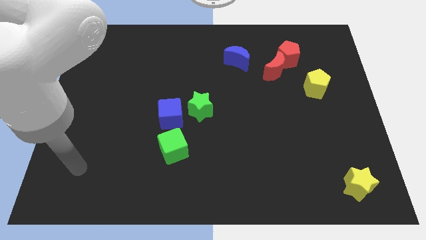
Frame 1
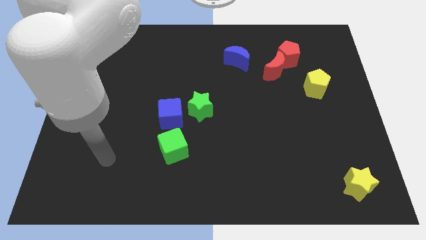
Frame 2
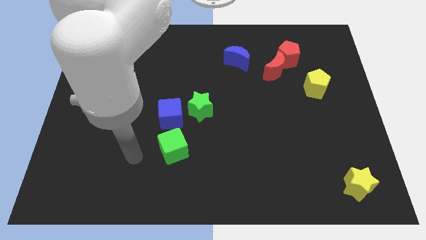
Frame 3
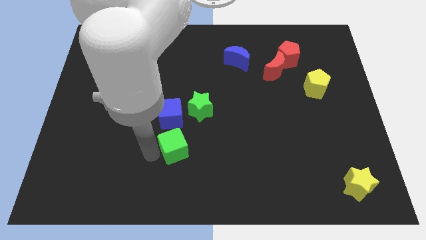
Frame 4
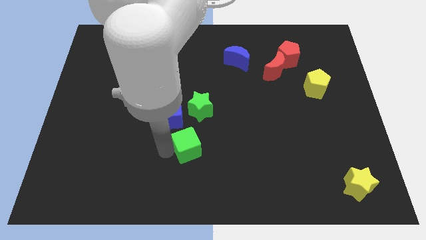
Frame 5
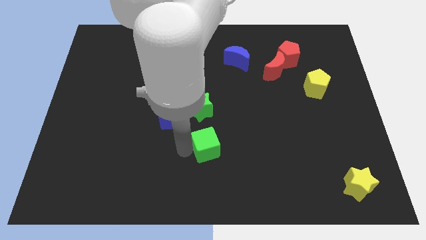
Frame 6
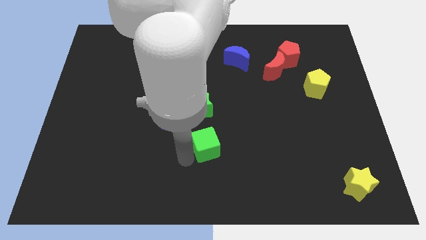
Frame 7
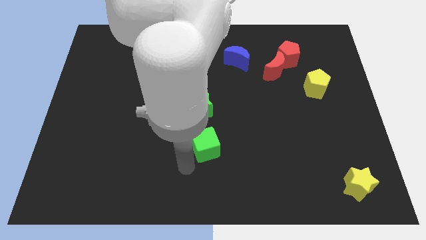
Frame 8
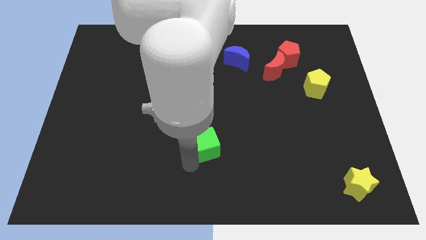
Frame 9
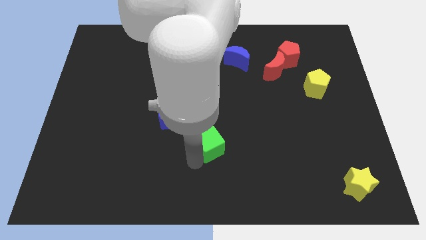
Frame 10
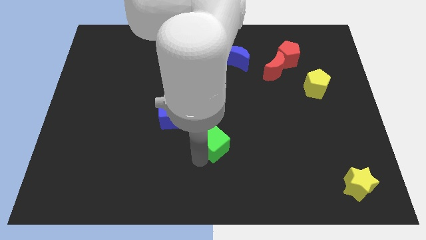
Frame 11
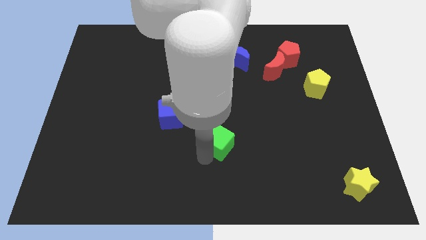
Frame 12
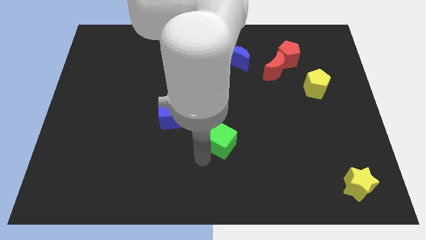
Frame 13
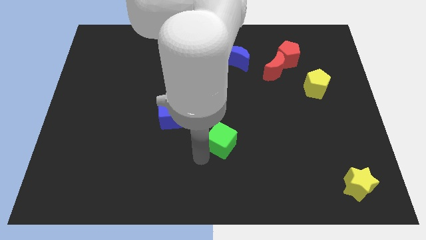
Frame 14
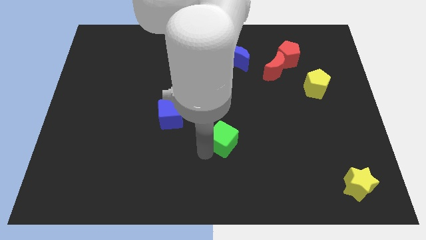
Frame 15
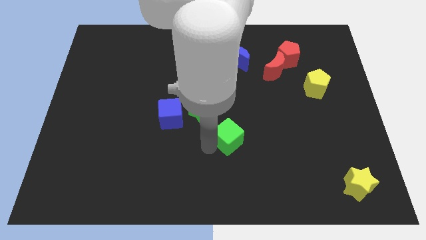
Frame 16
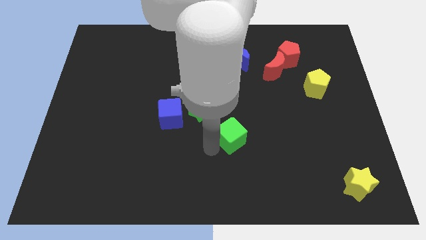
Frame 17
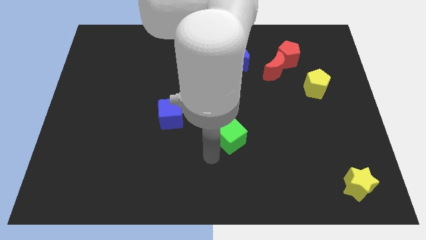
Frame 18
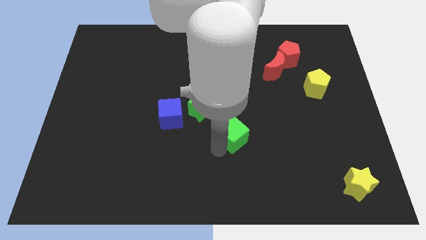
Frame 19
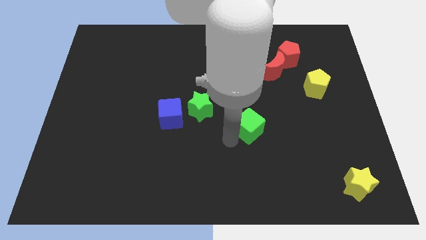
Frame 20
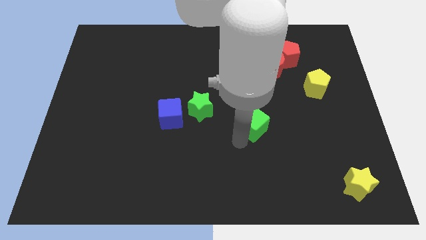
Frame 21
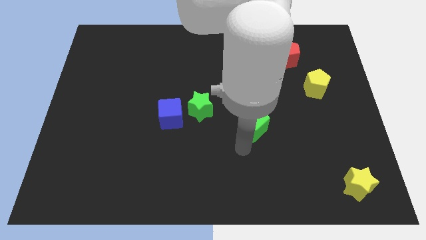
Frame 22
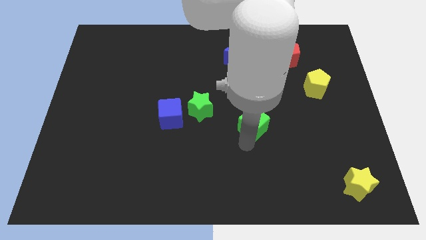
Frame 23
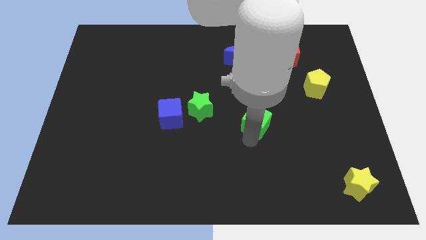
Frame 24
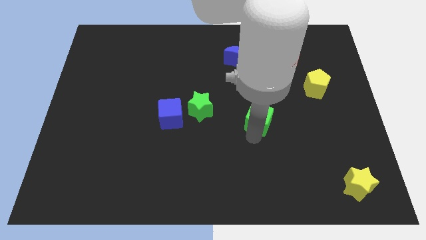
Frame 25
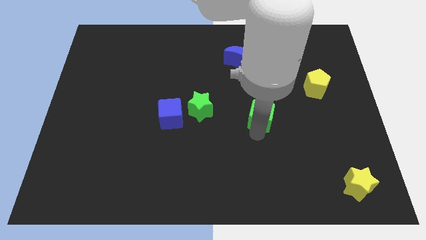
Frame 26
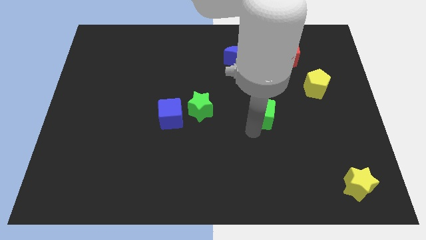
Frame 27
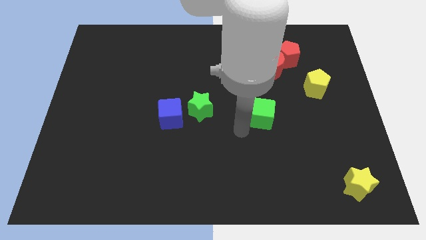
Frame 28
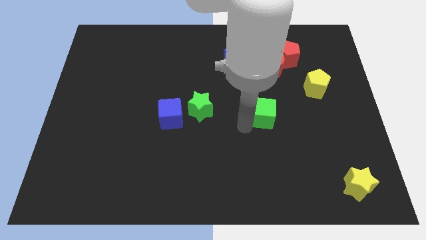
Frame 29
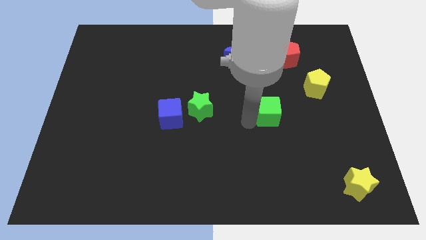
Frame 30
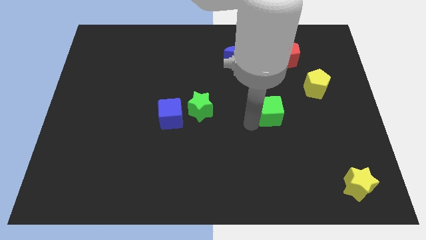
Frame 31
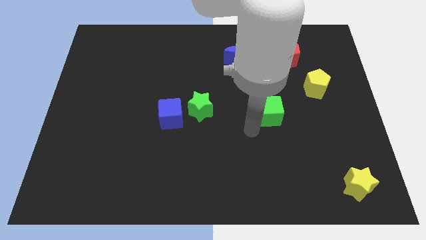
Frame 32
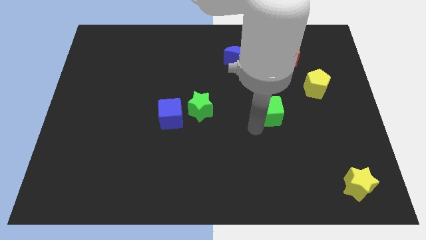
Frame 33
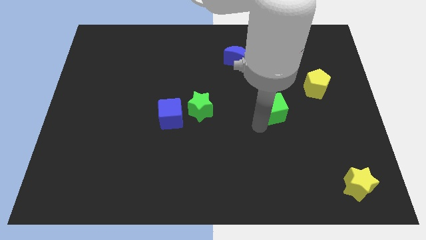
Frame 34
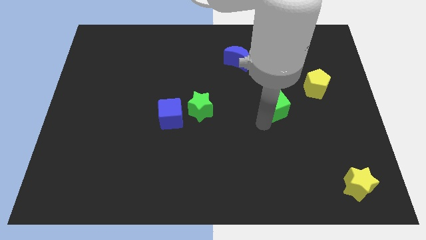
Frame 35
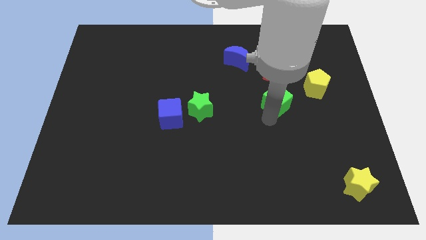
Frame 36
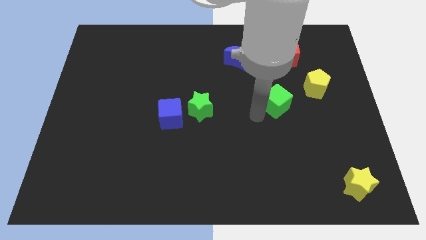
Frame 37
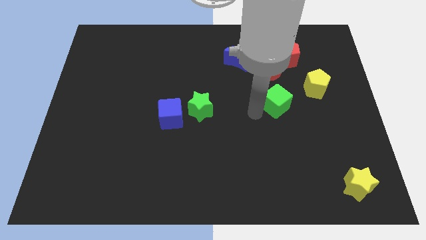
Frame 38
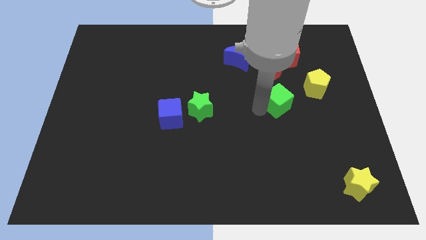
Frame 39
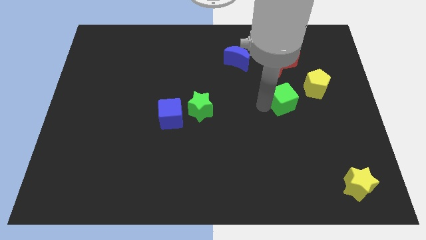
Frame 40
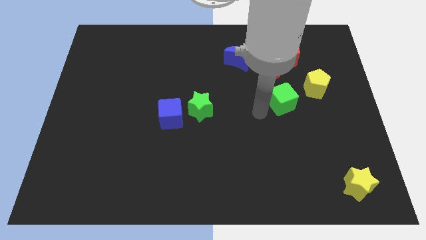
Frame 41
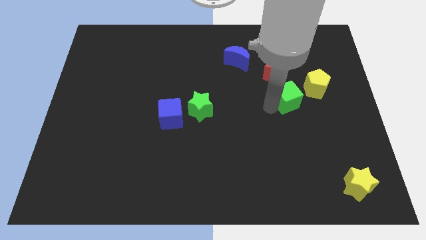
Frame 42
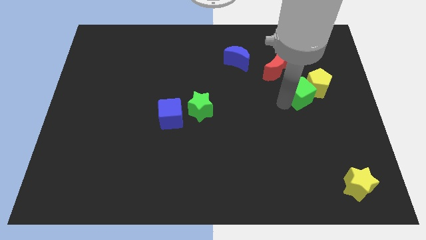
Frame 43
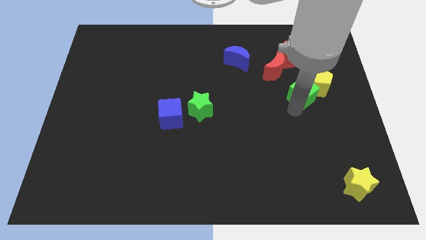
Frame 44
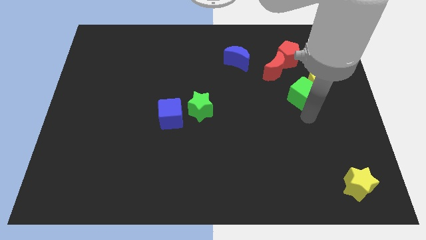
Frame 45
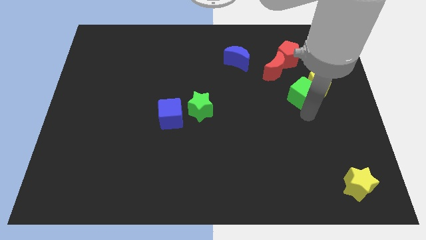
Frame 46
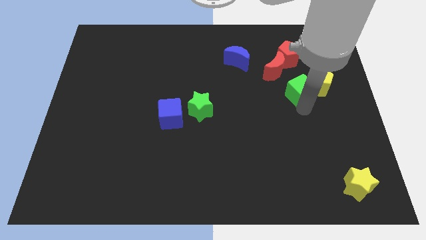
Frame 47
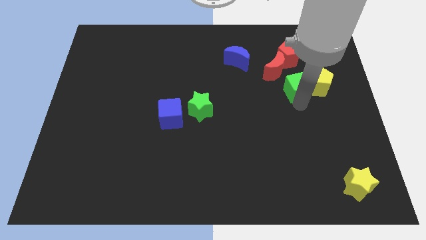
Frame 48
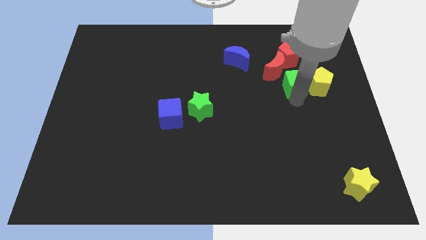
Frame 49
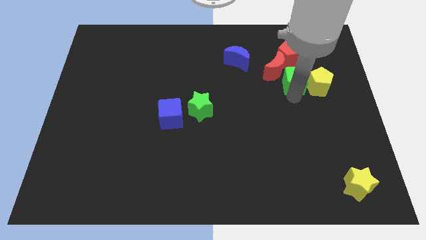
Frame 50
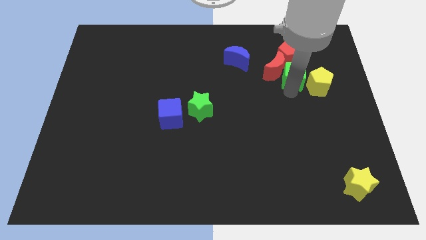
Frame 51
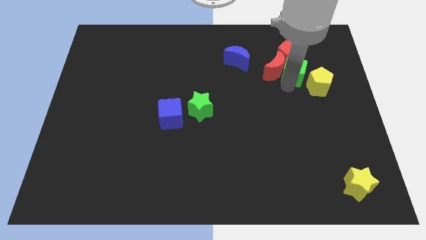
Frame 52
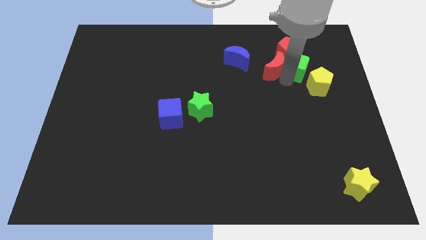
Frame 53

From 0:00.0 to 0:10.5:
push the green cube to the top of the yellow pentagon

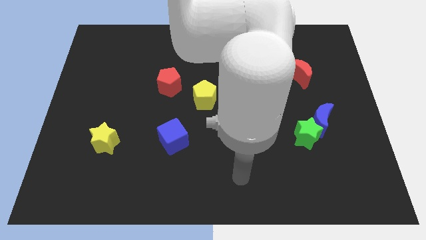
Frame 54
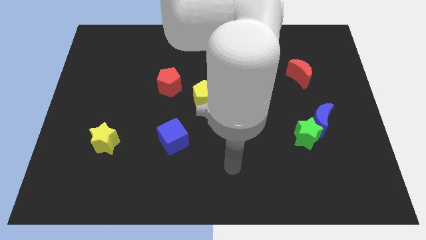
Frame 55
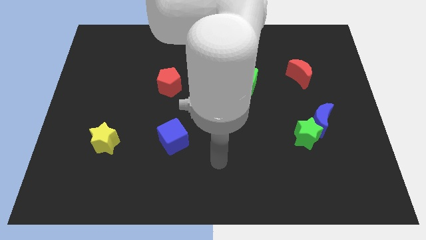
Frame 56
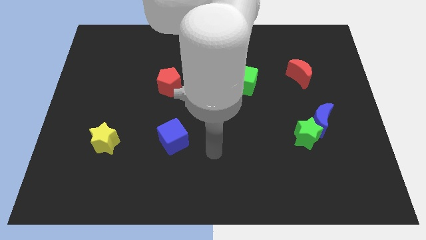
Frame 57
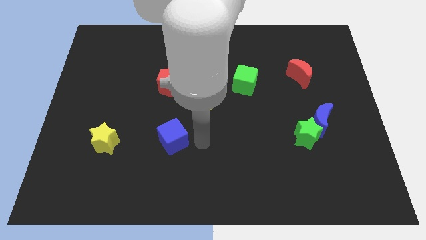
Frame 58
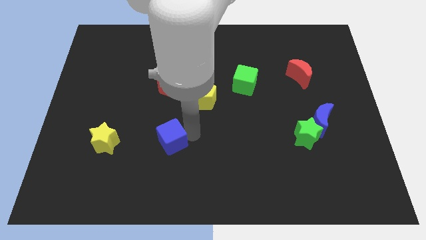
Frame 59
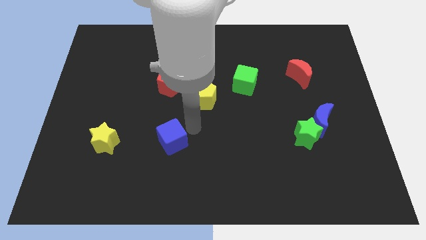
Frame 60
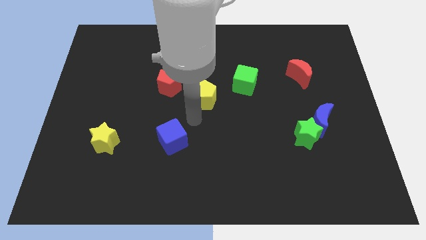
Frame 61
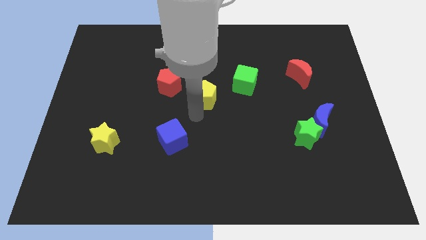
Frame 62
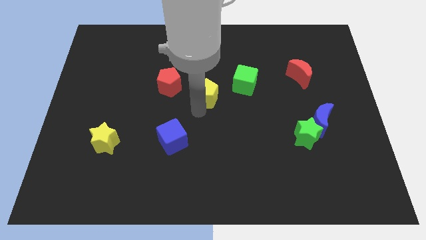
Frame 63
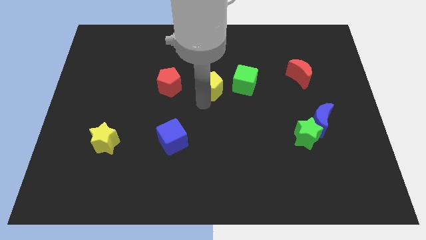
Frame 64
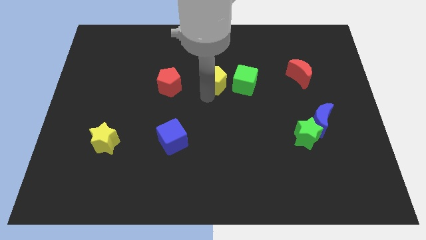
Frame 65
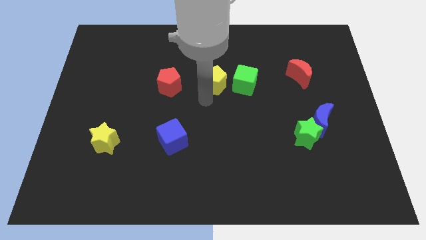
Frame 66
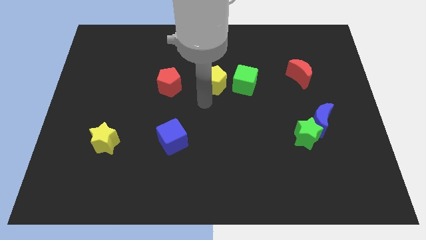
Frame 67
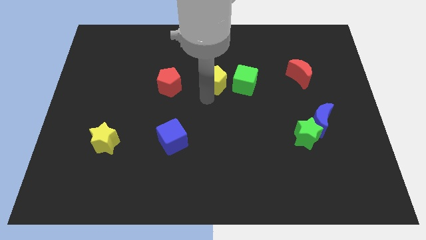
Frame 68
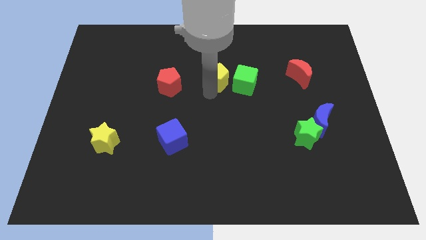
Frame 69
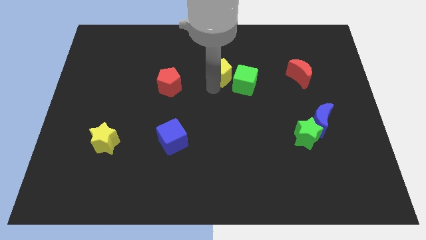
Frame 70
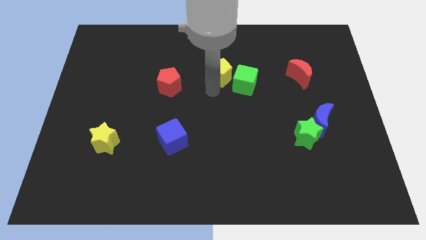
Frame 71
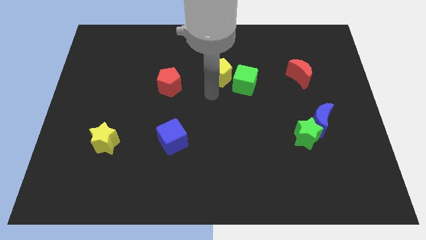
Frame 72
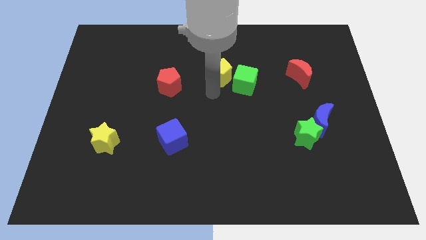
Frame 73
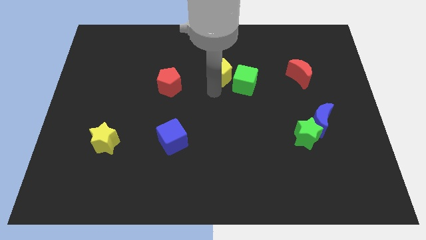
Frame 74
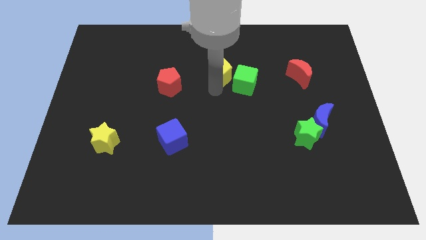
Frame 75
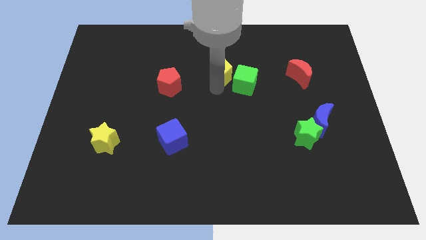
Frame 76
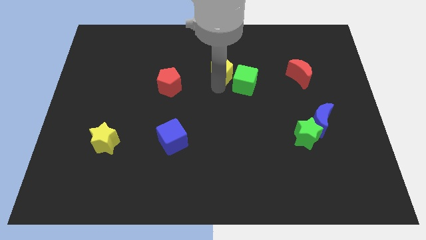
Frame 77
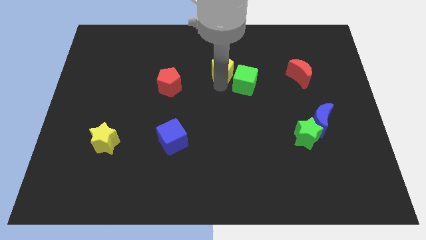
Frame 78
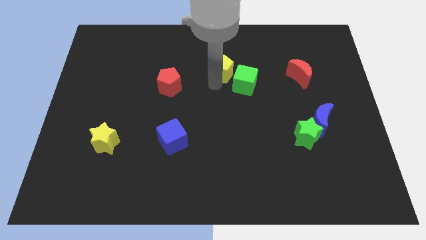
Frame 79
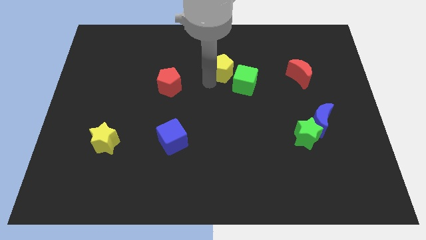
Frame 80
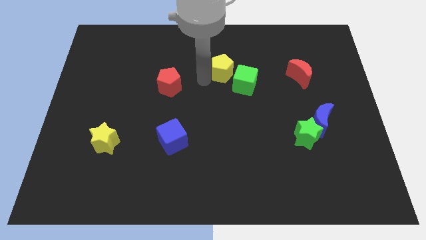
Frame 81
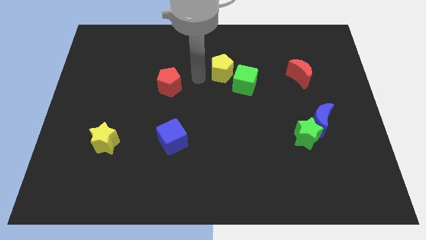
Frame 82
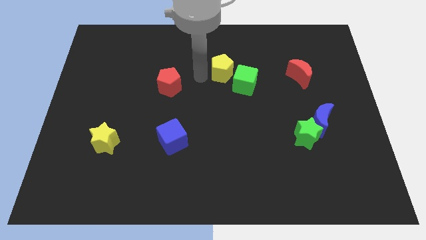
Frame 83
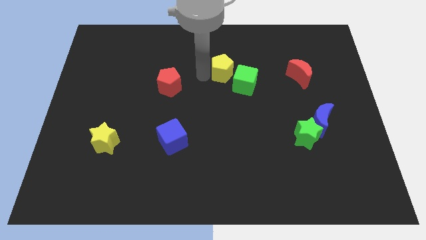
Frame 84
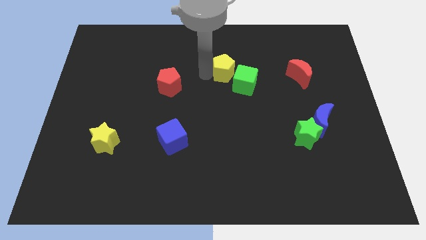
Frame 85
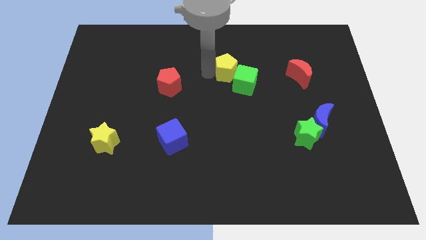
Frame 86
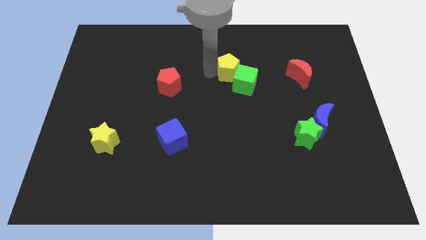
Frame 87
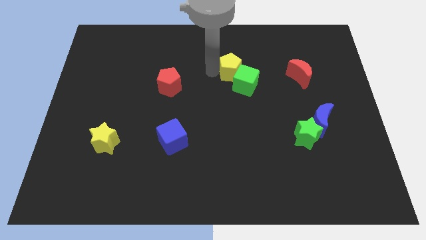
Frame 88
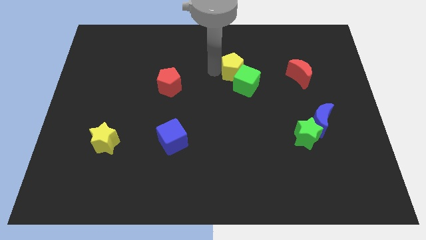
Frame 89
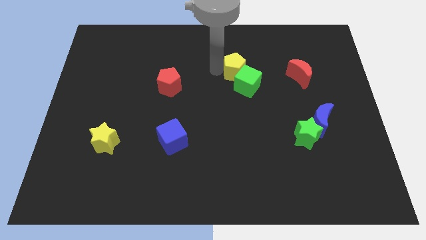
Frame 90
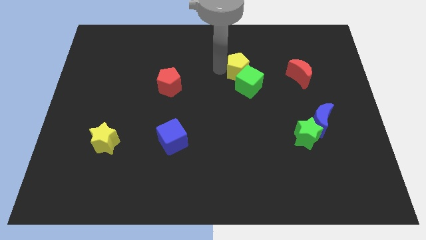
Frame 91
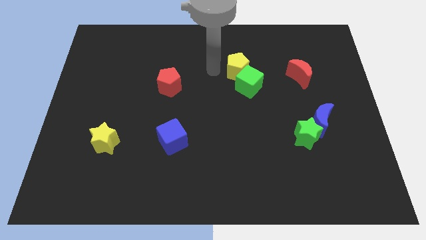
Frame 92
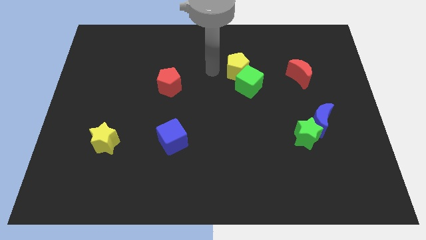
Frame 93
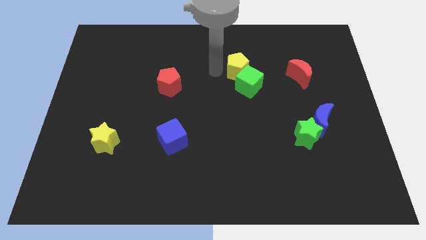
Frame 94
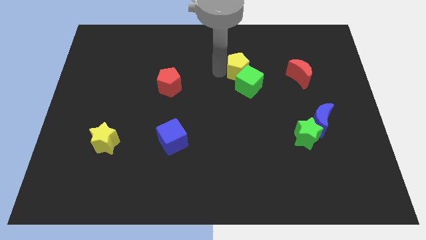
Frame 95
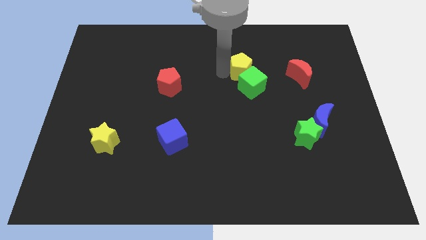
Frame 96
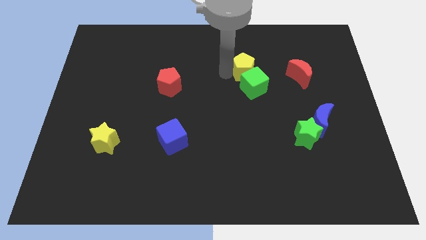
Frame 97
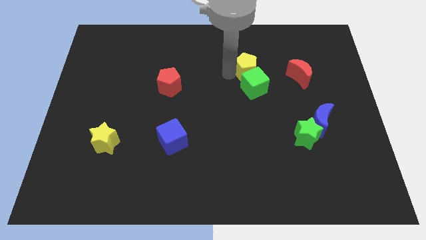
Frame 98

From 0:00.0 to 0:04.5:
slide the yellow pentagon to the top right side of the green cube
